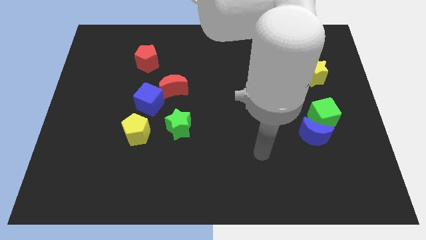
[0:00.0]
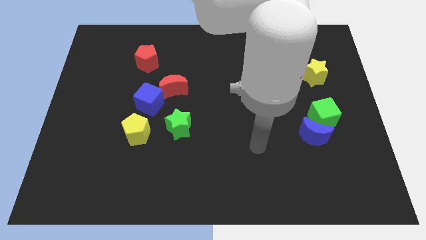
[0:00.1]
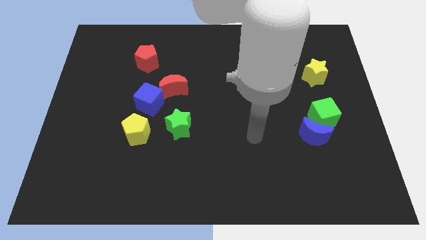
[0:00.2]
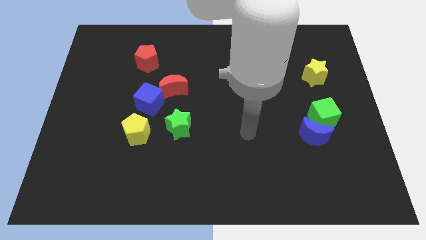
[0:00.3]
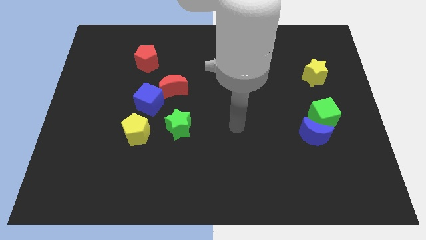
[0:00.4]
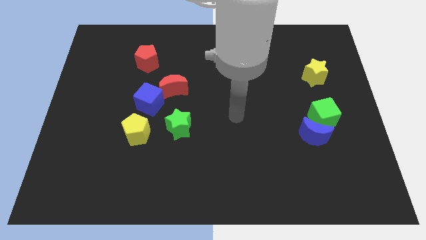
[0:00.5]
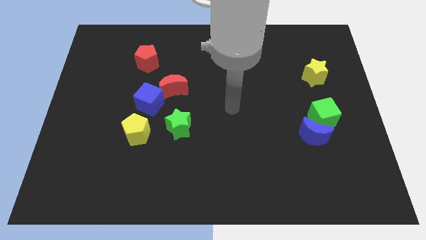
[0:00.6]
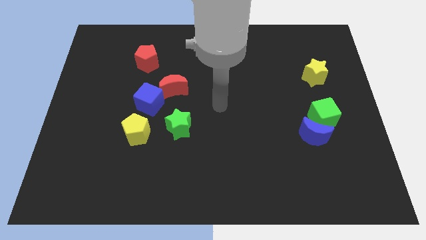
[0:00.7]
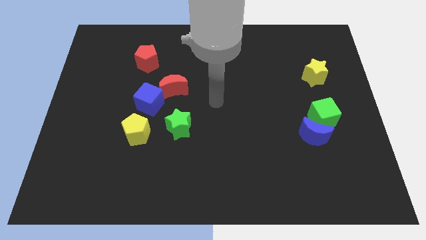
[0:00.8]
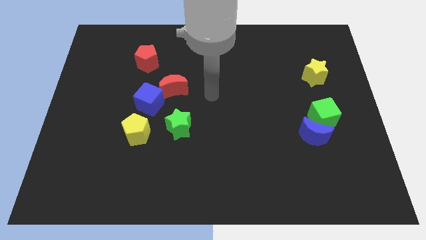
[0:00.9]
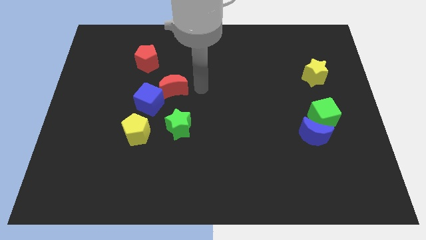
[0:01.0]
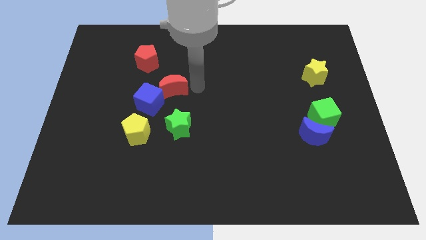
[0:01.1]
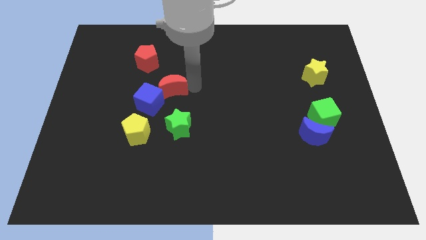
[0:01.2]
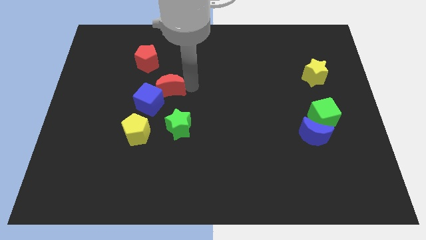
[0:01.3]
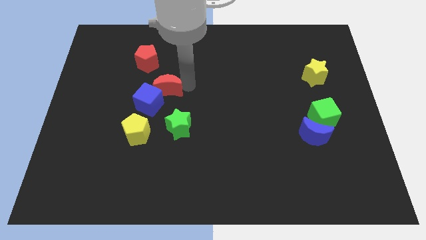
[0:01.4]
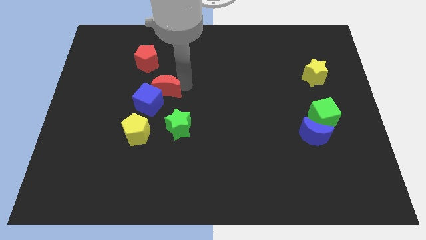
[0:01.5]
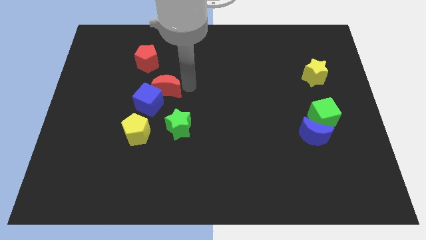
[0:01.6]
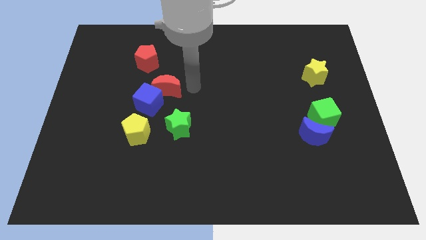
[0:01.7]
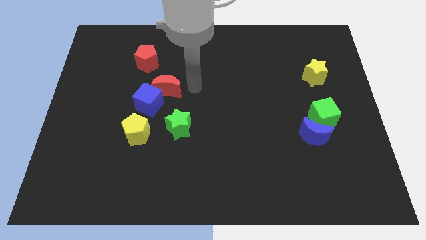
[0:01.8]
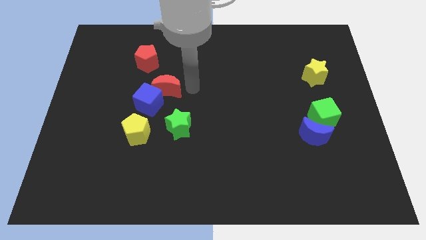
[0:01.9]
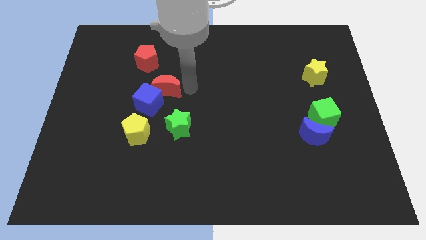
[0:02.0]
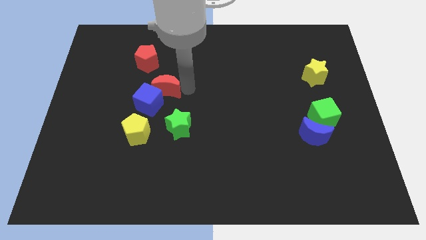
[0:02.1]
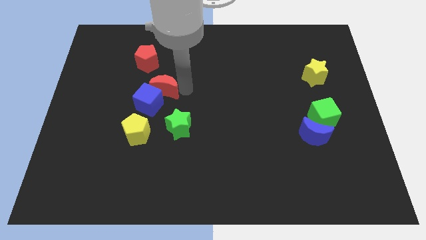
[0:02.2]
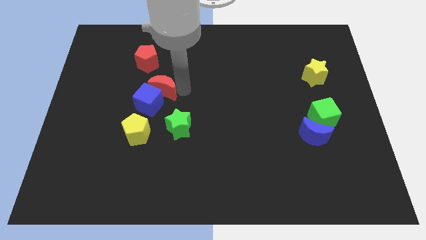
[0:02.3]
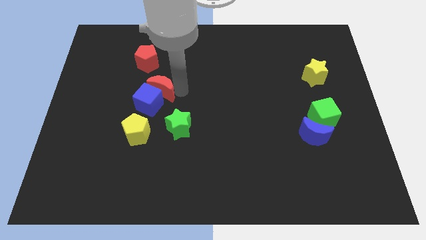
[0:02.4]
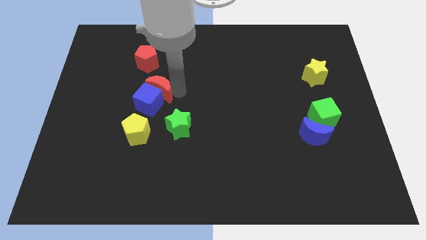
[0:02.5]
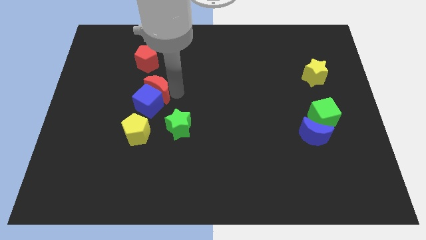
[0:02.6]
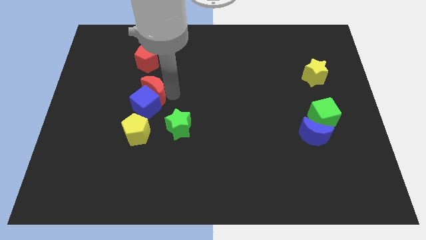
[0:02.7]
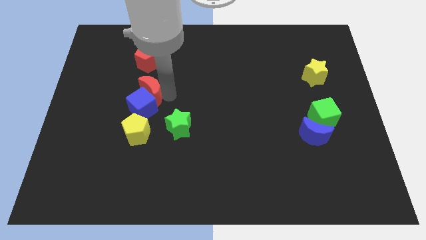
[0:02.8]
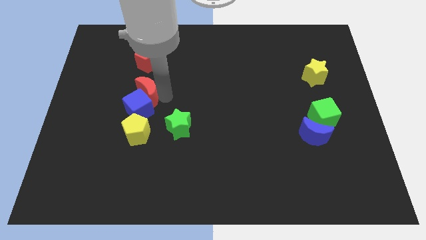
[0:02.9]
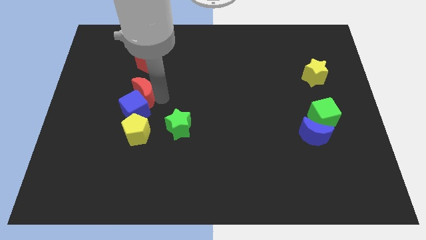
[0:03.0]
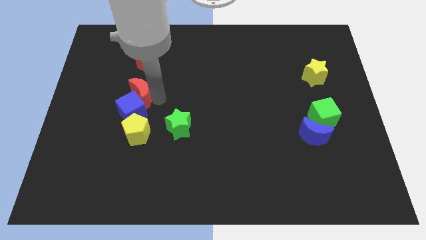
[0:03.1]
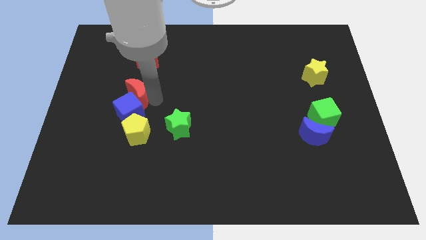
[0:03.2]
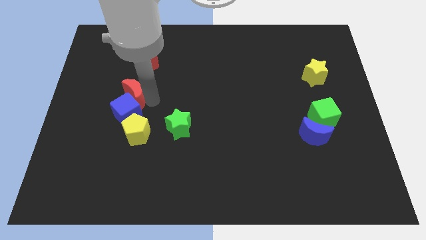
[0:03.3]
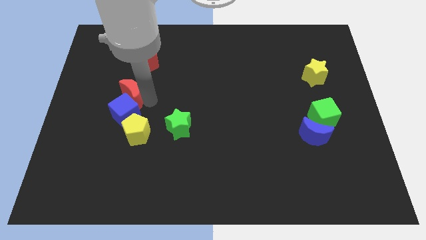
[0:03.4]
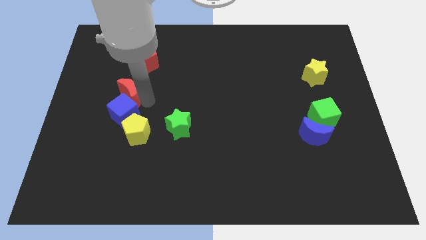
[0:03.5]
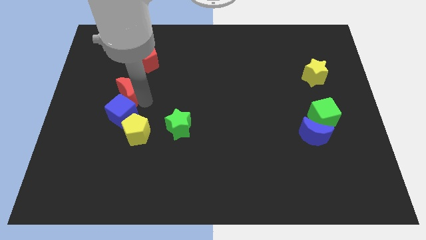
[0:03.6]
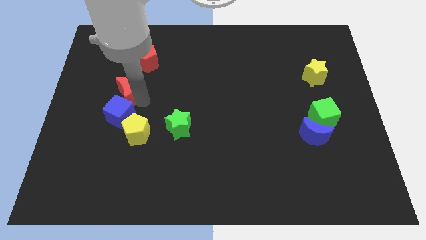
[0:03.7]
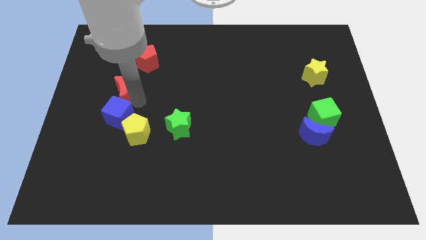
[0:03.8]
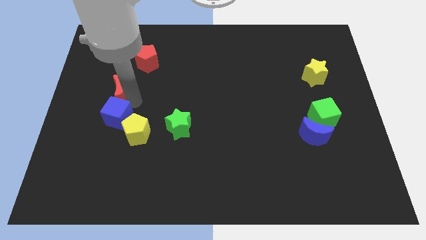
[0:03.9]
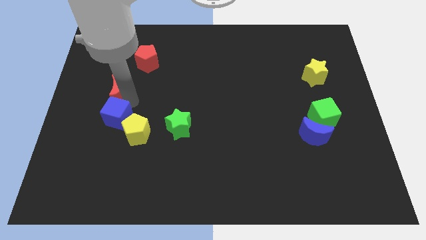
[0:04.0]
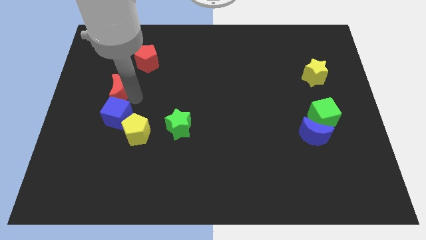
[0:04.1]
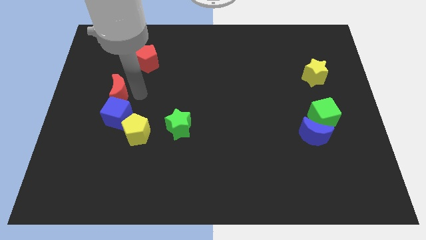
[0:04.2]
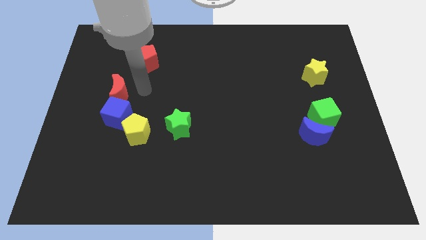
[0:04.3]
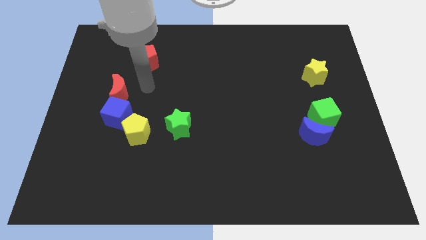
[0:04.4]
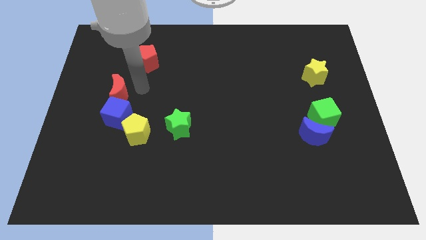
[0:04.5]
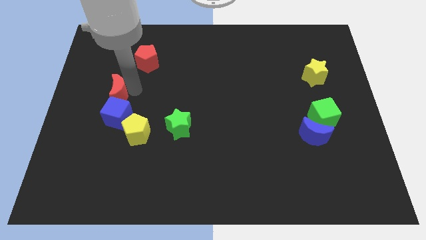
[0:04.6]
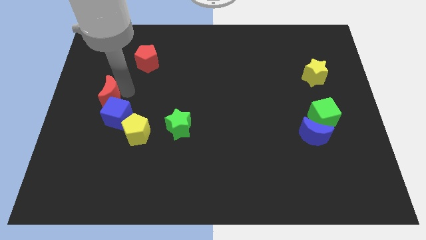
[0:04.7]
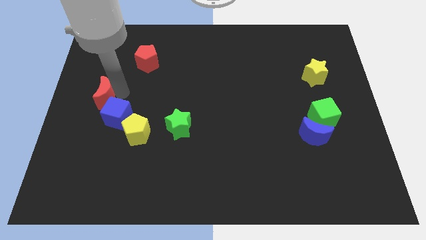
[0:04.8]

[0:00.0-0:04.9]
put the red moon to the left side

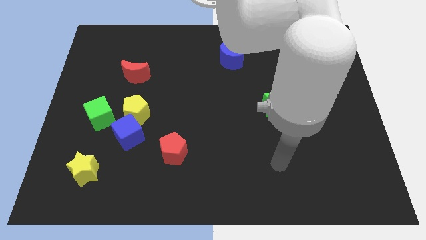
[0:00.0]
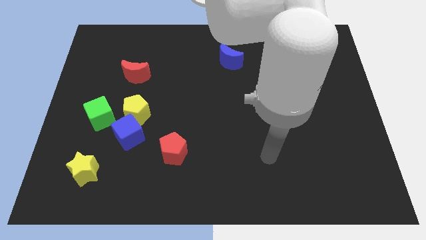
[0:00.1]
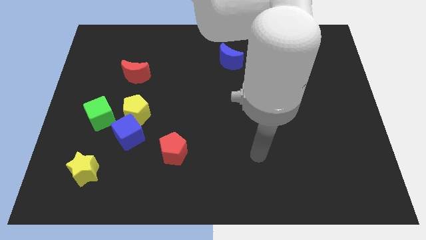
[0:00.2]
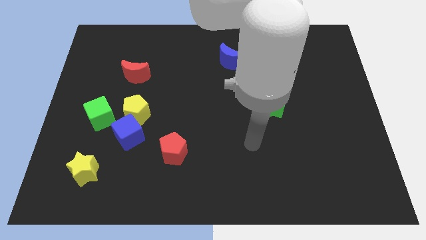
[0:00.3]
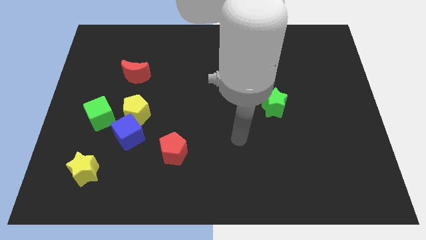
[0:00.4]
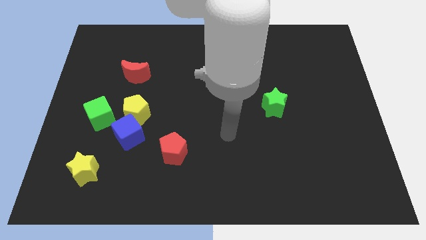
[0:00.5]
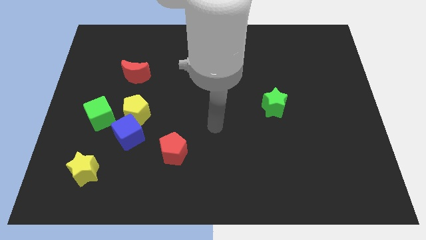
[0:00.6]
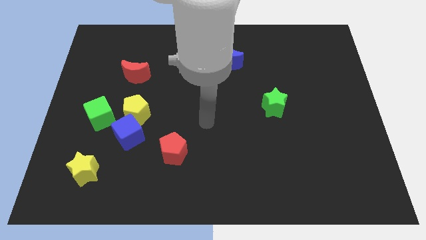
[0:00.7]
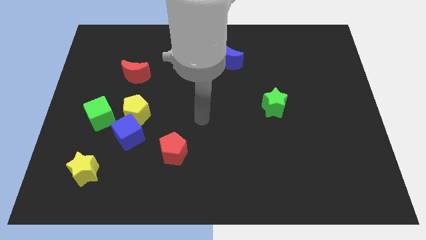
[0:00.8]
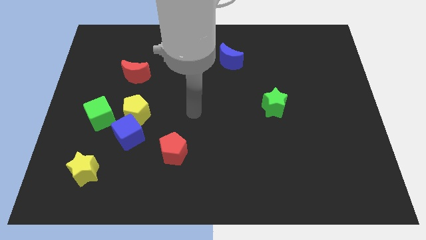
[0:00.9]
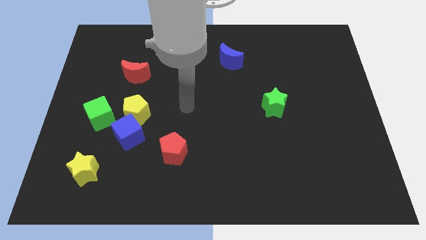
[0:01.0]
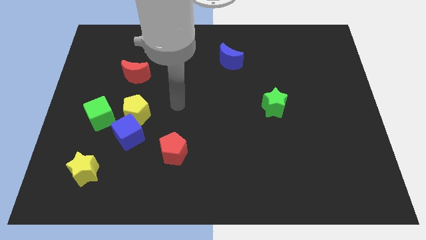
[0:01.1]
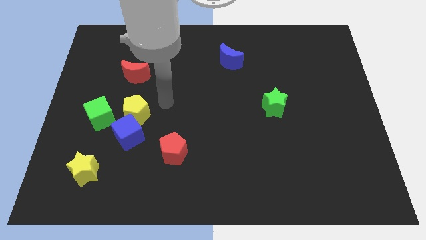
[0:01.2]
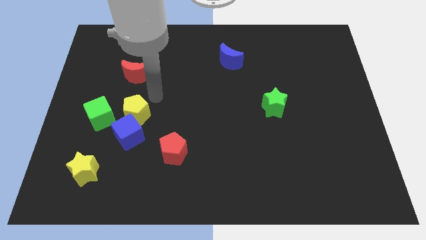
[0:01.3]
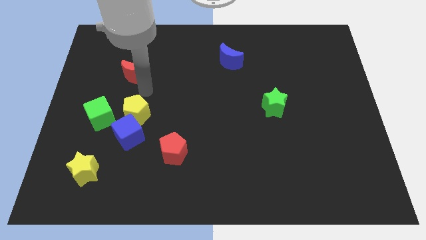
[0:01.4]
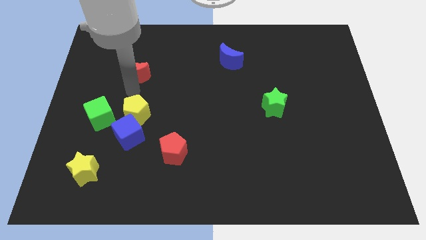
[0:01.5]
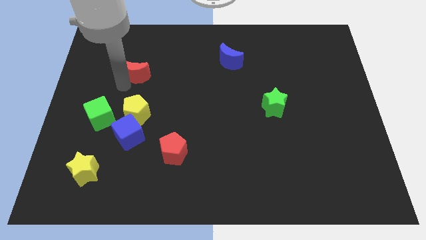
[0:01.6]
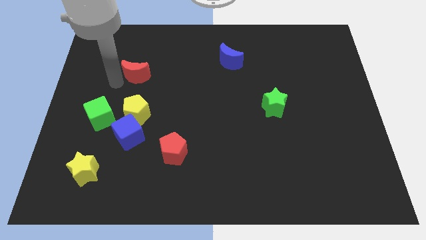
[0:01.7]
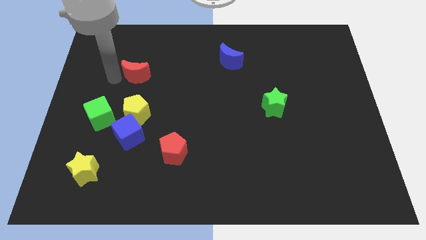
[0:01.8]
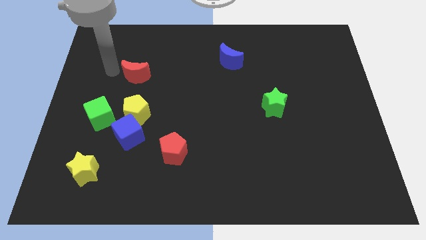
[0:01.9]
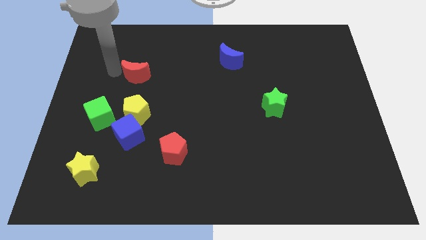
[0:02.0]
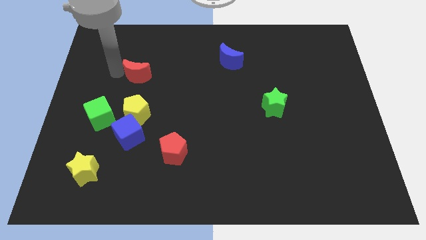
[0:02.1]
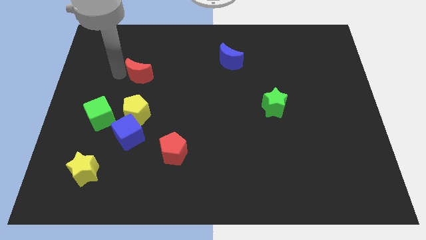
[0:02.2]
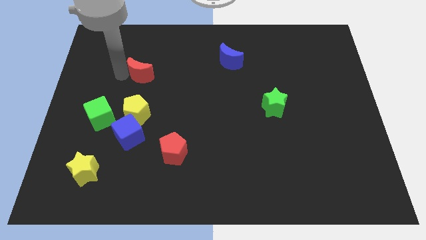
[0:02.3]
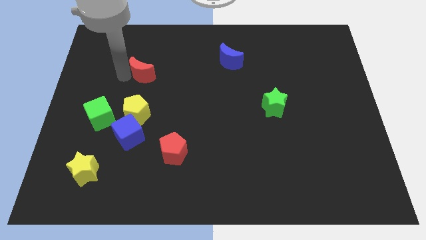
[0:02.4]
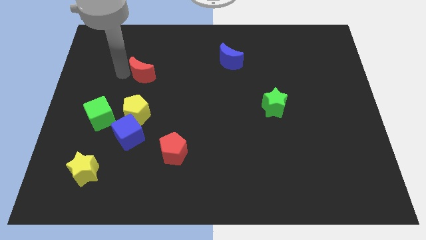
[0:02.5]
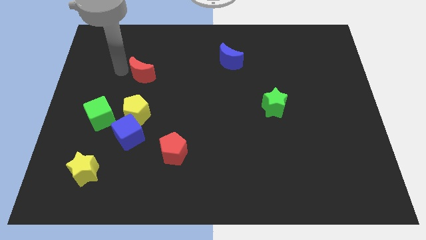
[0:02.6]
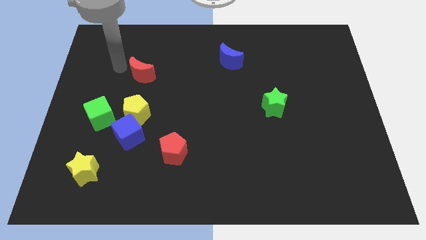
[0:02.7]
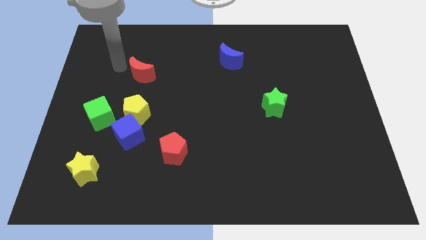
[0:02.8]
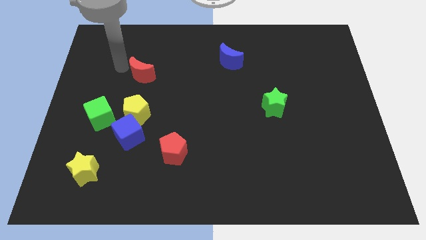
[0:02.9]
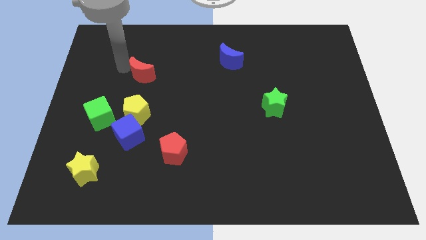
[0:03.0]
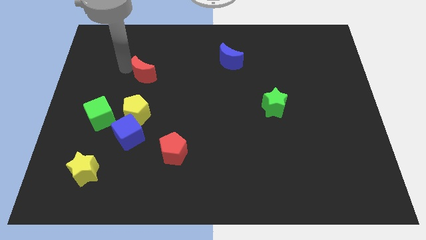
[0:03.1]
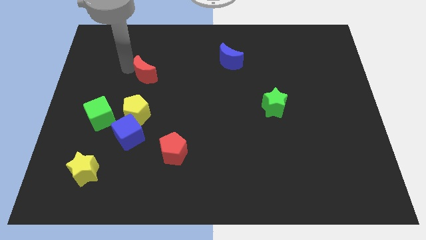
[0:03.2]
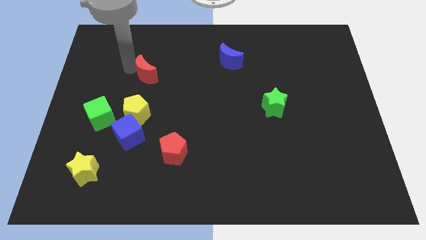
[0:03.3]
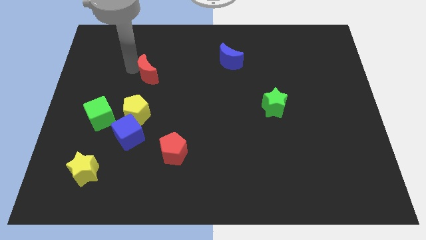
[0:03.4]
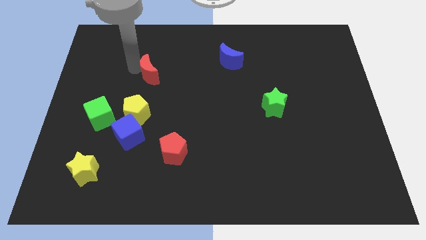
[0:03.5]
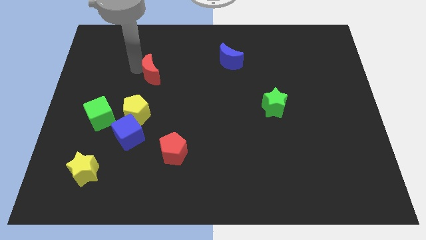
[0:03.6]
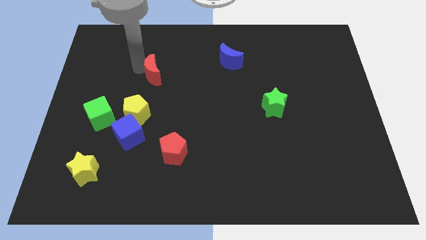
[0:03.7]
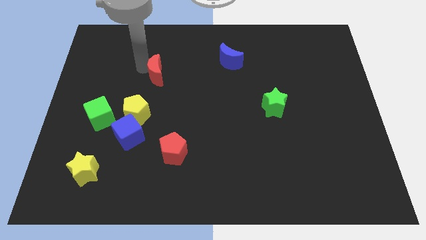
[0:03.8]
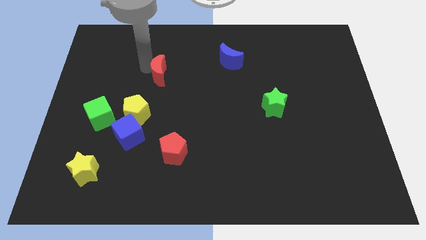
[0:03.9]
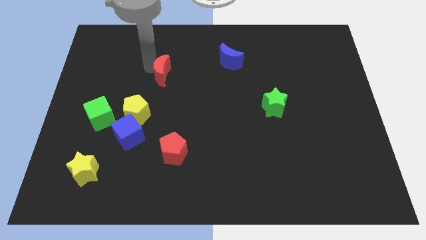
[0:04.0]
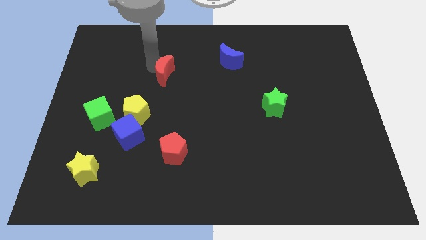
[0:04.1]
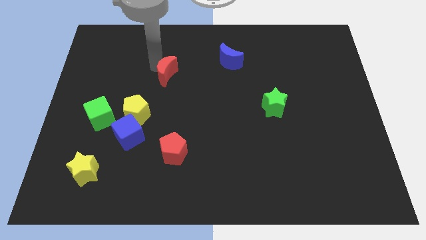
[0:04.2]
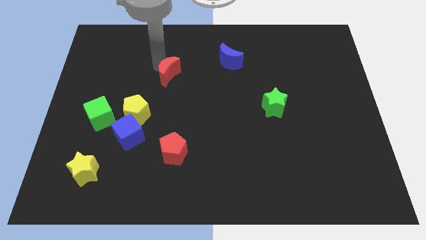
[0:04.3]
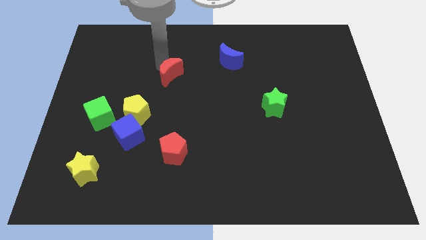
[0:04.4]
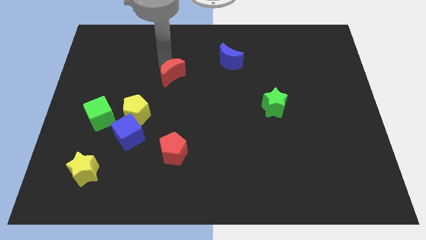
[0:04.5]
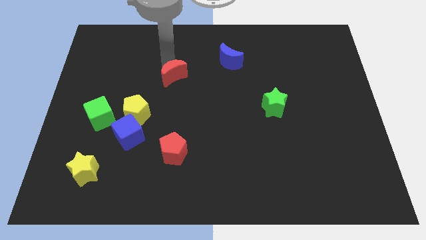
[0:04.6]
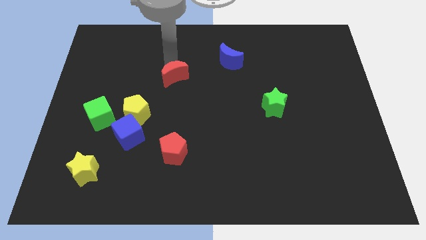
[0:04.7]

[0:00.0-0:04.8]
push the red moon to the center of the board
